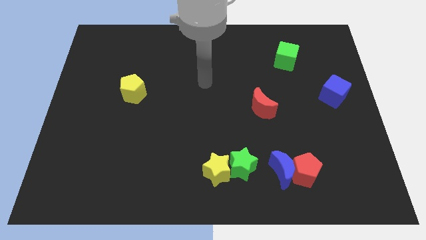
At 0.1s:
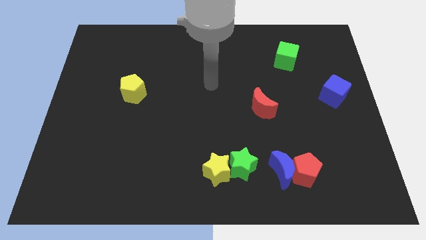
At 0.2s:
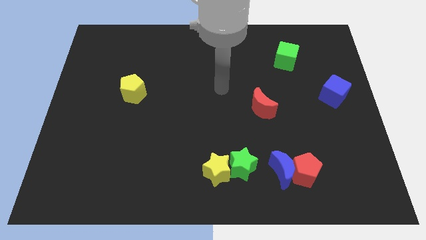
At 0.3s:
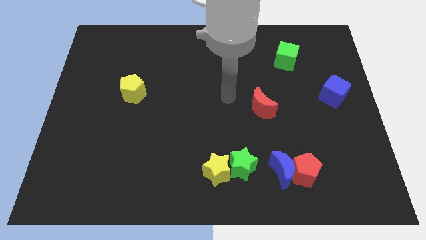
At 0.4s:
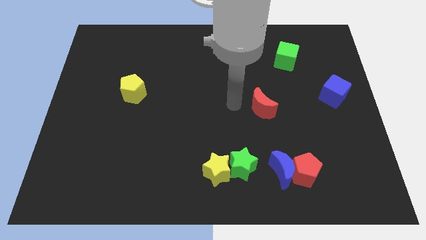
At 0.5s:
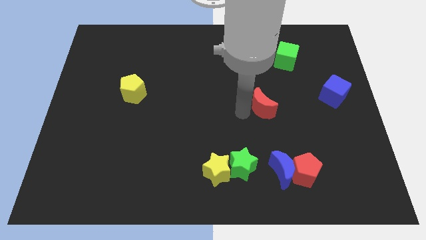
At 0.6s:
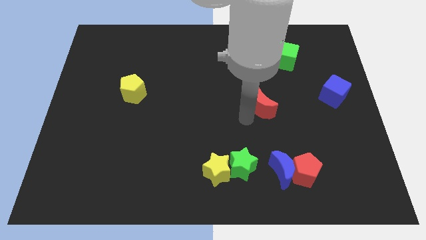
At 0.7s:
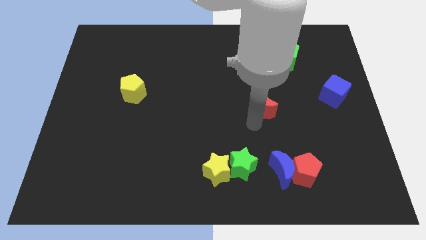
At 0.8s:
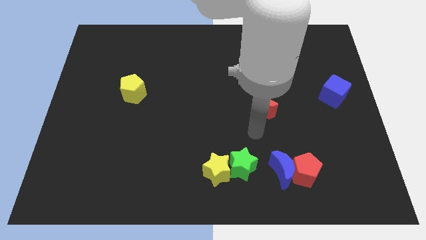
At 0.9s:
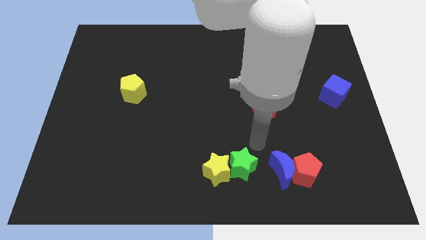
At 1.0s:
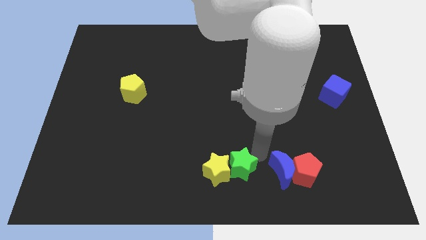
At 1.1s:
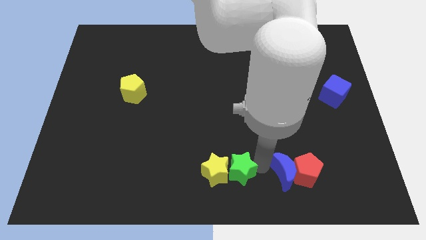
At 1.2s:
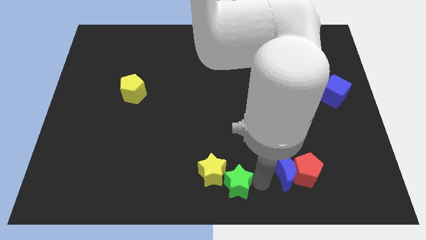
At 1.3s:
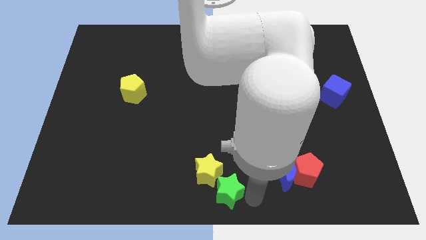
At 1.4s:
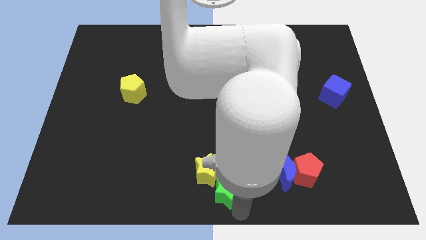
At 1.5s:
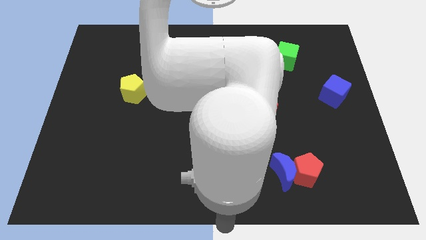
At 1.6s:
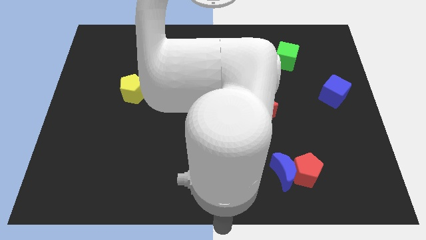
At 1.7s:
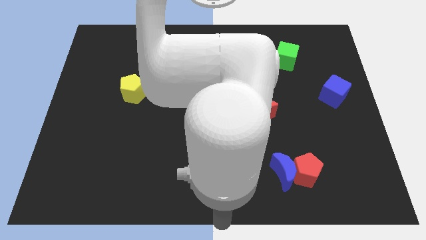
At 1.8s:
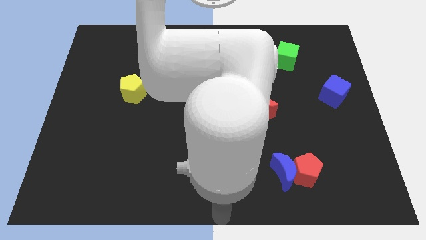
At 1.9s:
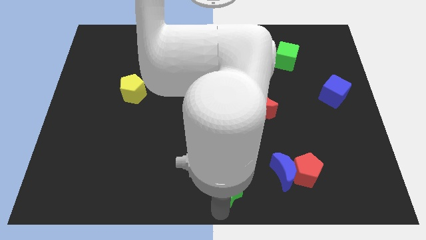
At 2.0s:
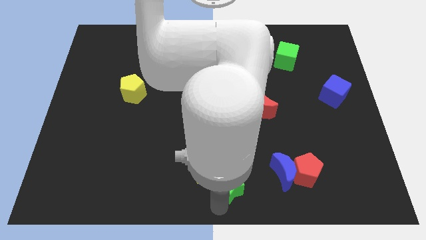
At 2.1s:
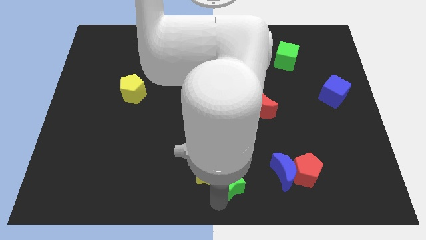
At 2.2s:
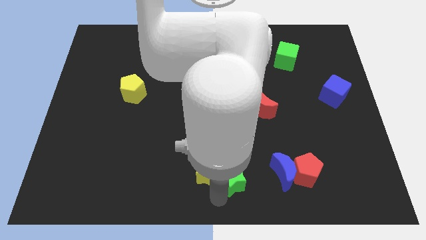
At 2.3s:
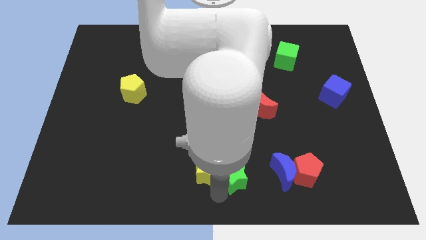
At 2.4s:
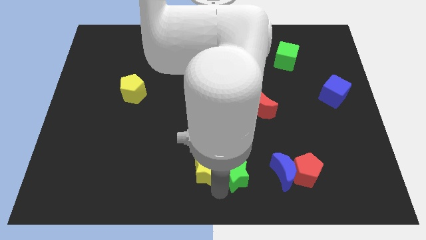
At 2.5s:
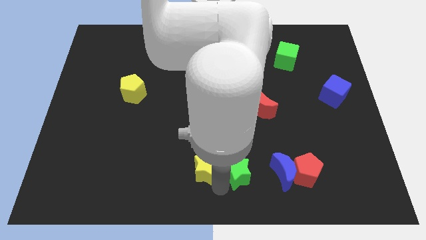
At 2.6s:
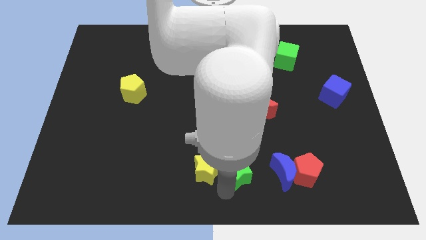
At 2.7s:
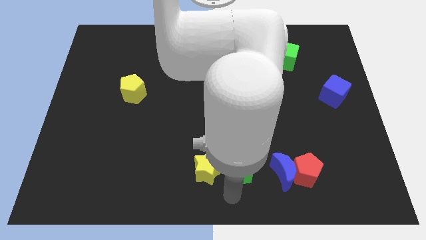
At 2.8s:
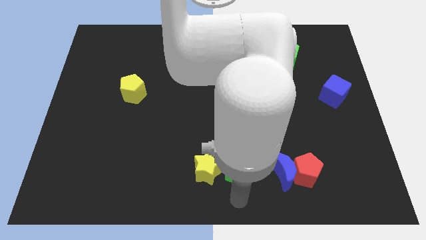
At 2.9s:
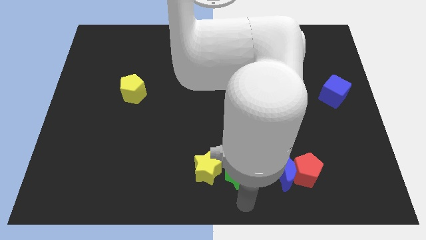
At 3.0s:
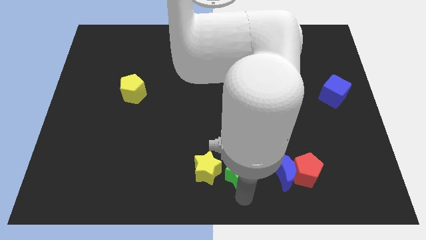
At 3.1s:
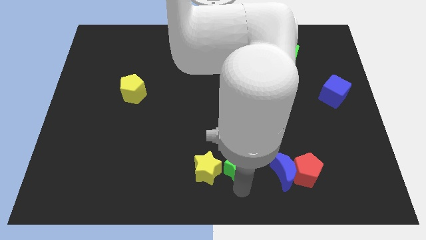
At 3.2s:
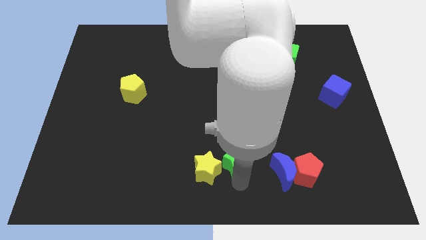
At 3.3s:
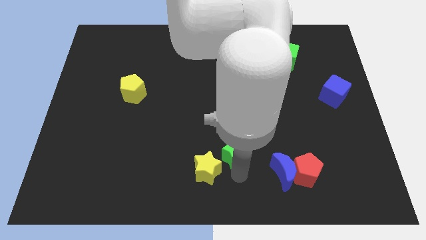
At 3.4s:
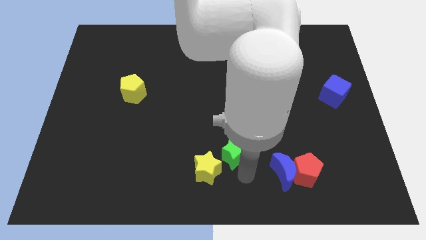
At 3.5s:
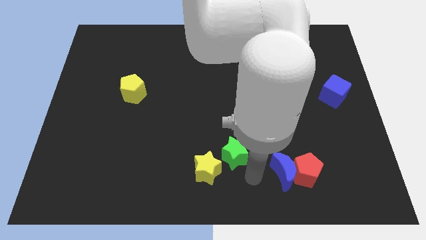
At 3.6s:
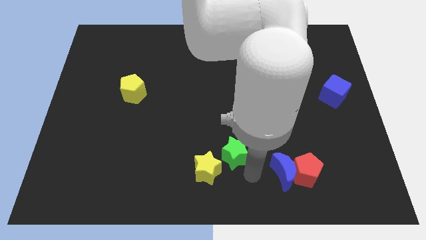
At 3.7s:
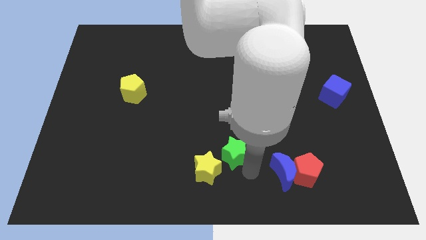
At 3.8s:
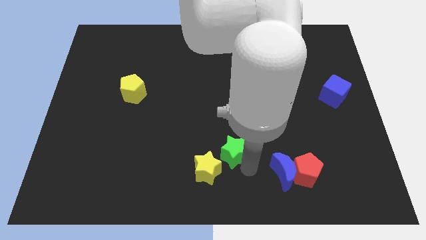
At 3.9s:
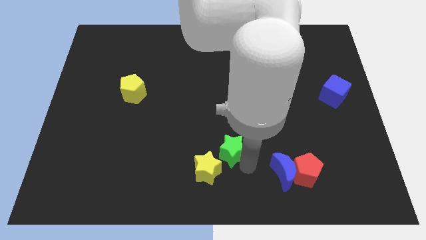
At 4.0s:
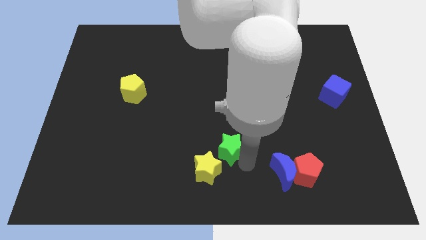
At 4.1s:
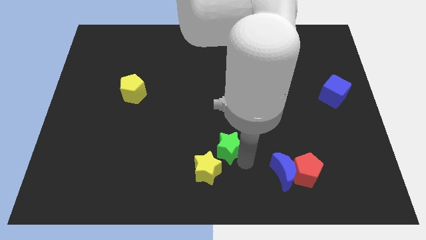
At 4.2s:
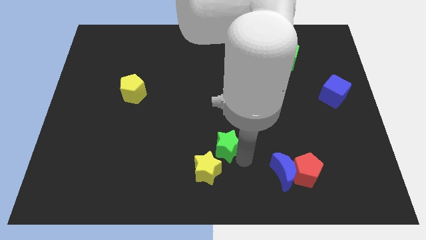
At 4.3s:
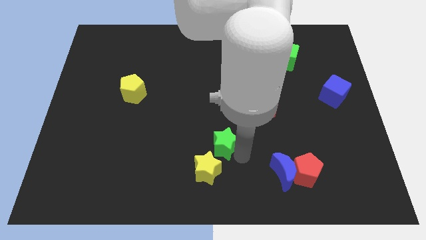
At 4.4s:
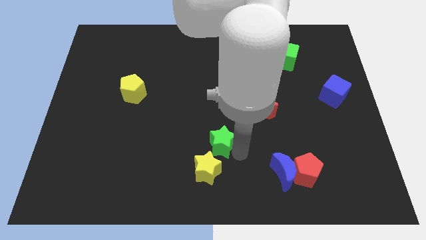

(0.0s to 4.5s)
move the green star up and left diagonally somewhat

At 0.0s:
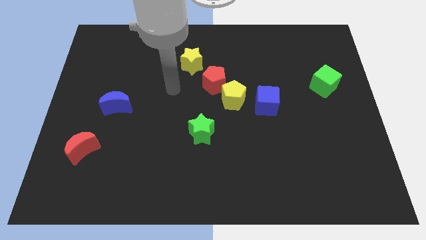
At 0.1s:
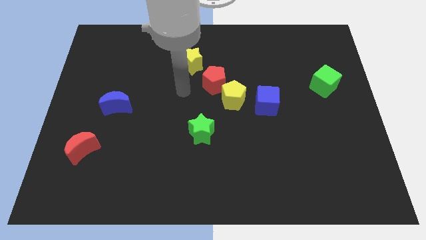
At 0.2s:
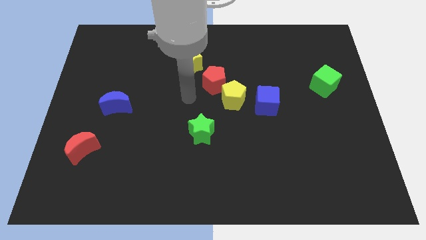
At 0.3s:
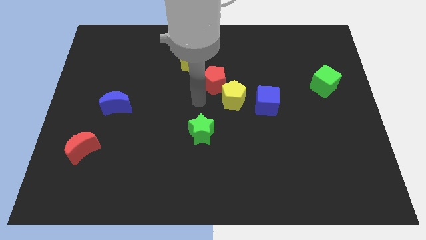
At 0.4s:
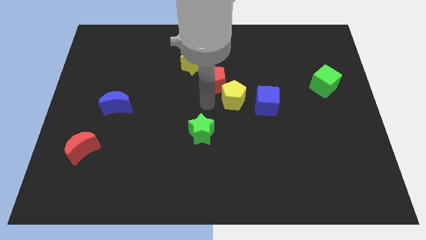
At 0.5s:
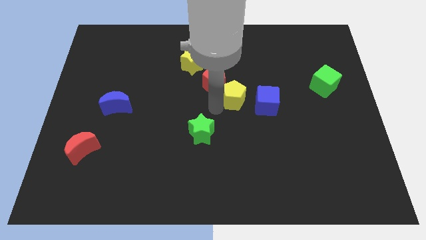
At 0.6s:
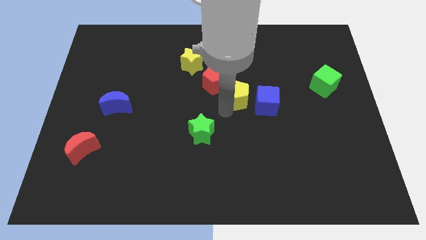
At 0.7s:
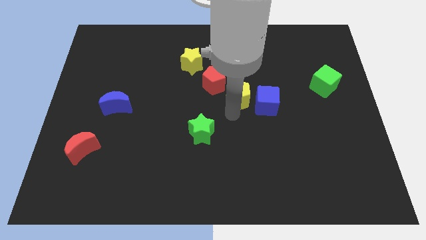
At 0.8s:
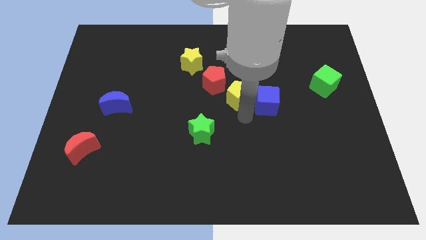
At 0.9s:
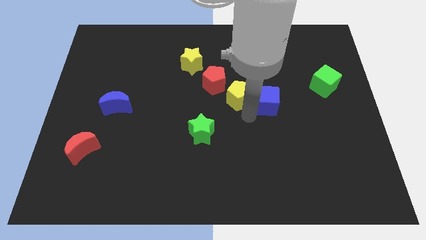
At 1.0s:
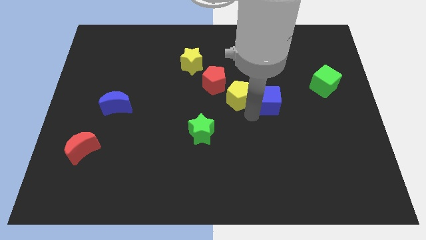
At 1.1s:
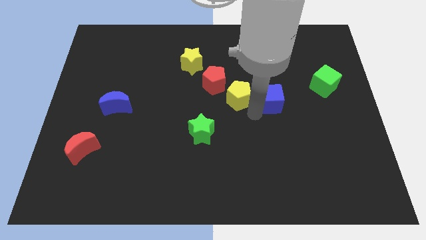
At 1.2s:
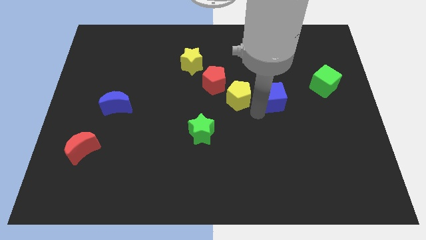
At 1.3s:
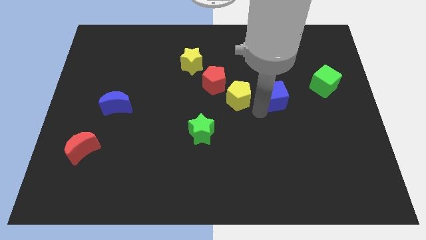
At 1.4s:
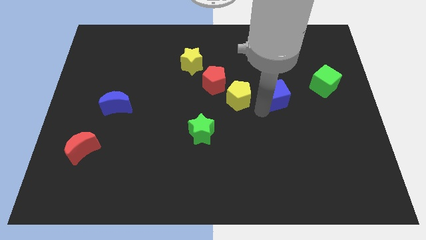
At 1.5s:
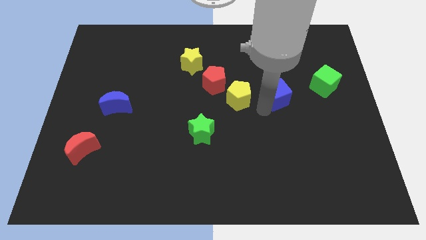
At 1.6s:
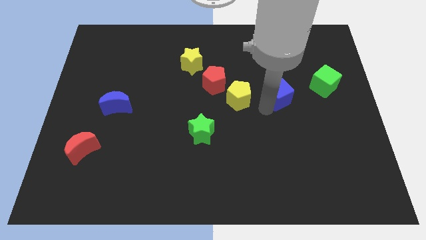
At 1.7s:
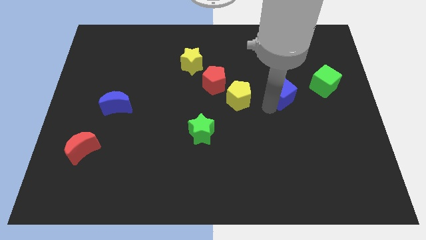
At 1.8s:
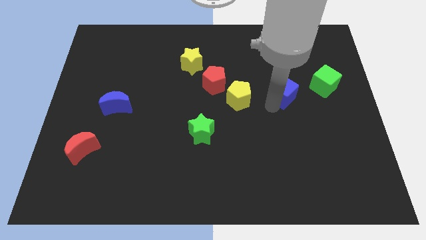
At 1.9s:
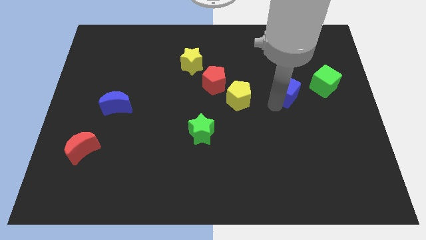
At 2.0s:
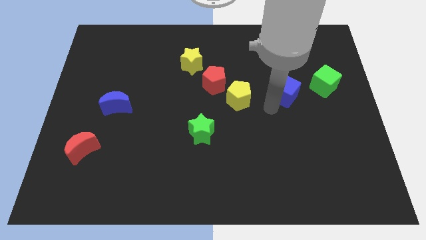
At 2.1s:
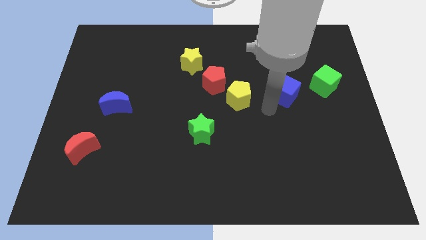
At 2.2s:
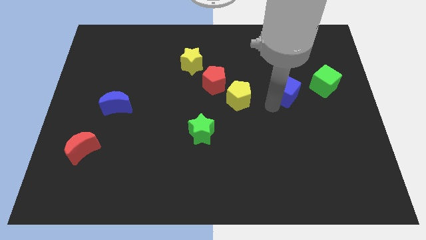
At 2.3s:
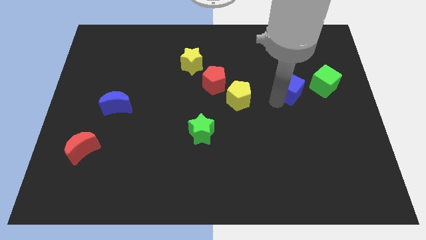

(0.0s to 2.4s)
slide the blue cube upwards and to the right somewhat

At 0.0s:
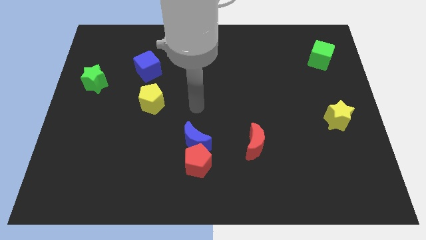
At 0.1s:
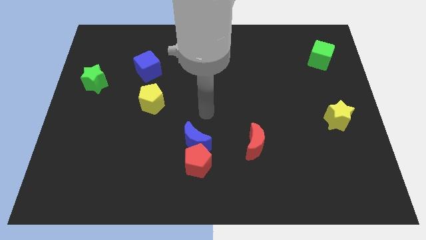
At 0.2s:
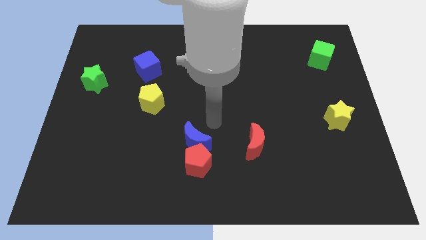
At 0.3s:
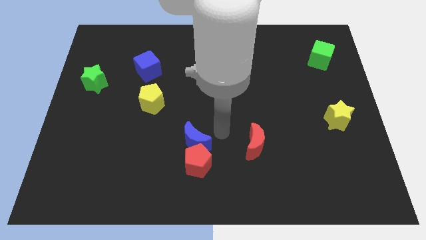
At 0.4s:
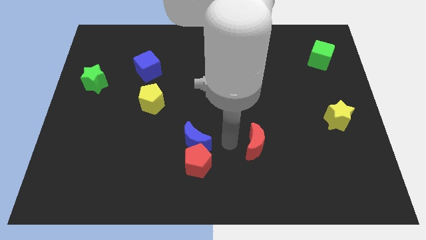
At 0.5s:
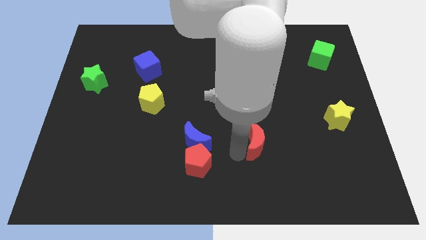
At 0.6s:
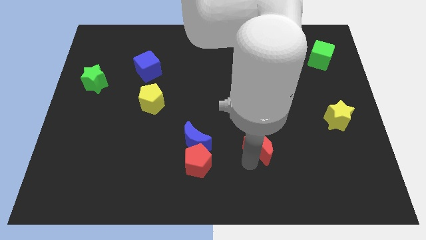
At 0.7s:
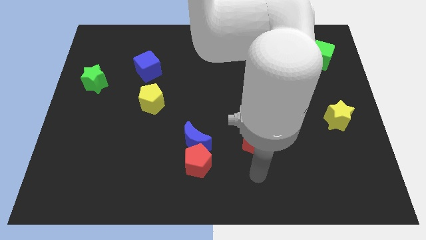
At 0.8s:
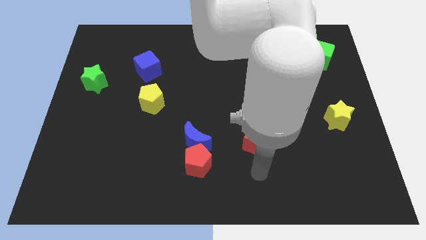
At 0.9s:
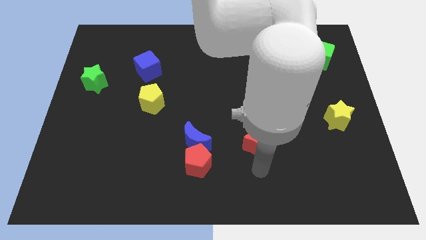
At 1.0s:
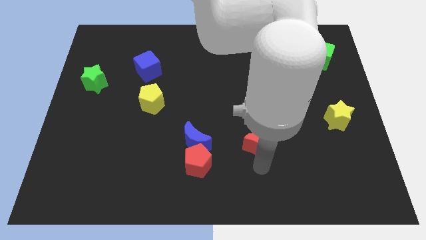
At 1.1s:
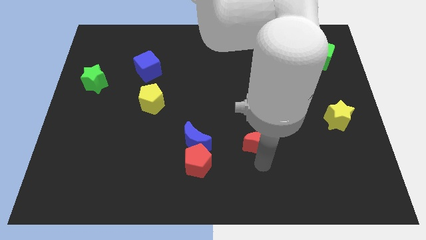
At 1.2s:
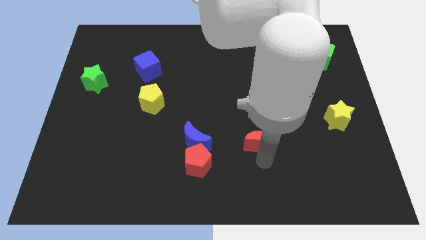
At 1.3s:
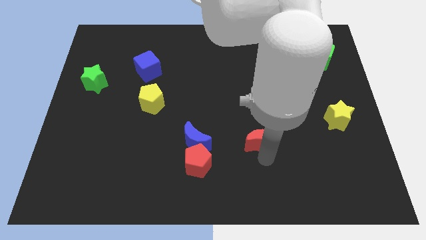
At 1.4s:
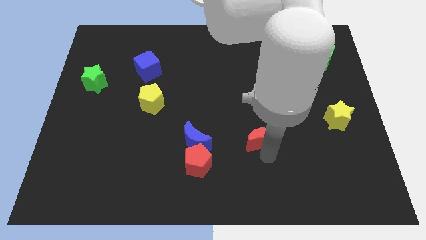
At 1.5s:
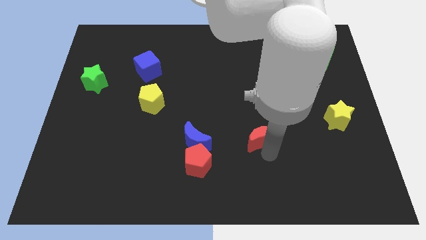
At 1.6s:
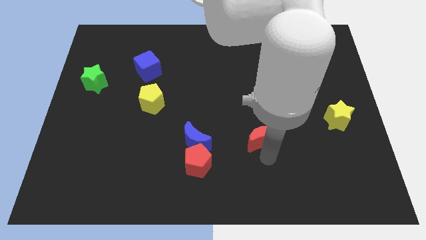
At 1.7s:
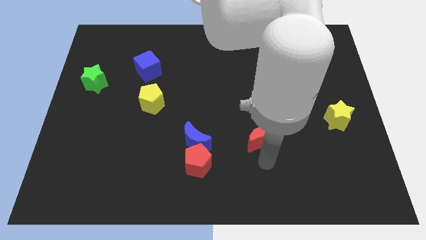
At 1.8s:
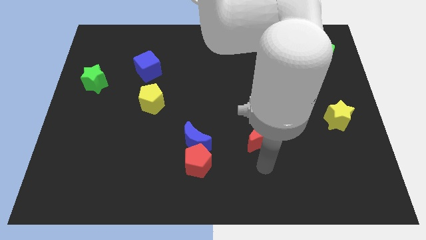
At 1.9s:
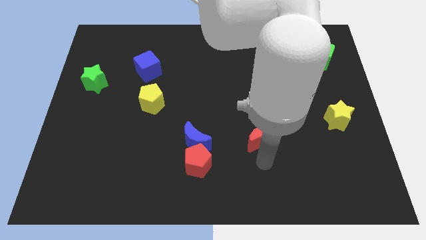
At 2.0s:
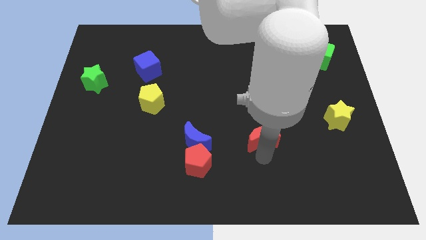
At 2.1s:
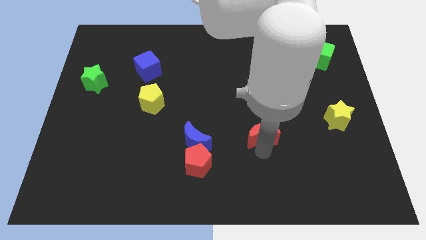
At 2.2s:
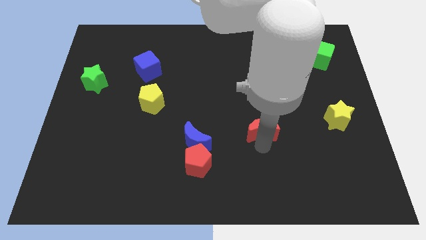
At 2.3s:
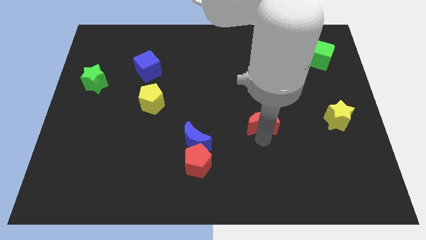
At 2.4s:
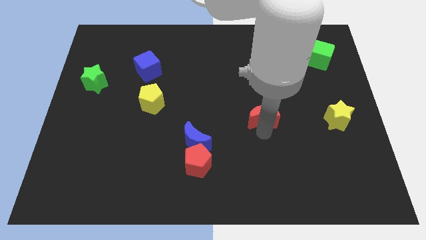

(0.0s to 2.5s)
move the red moon somewhat upwards
